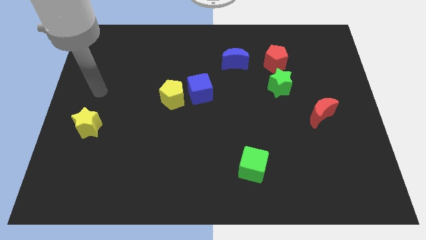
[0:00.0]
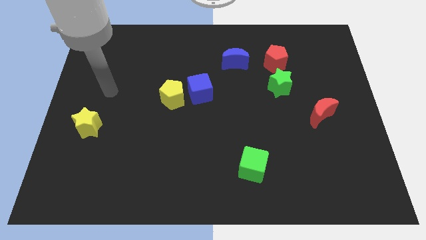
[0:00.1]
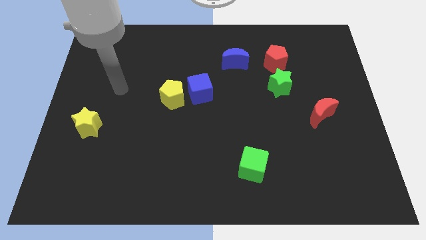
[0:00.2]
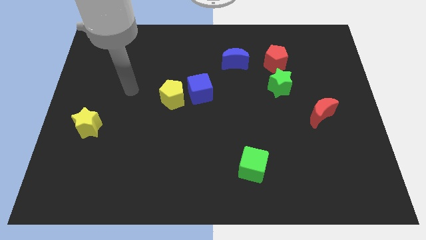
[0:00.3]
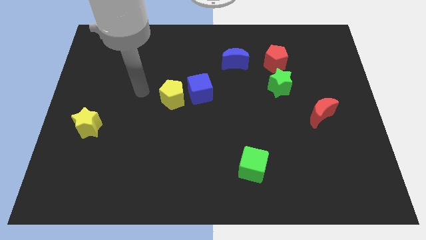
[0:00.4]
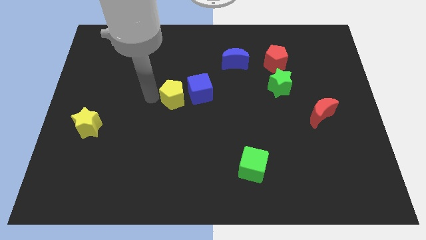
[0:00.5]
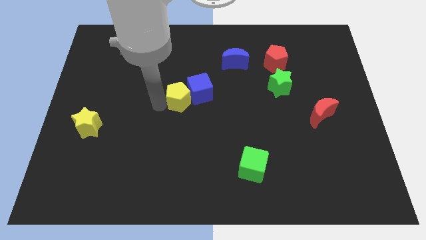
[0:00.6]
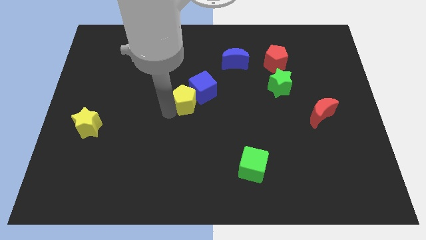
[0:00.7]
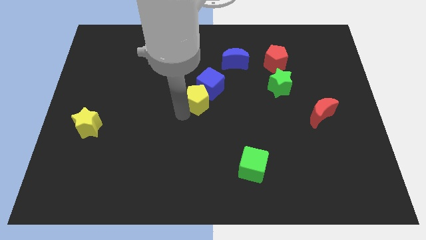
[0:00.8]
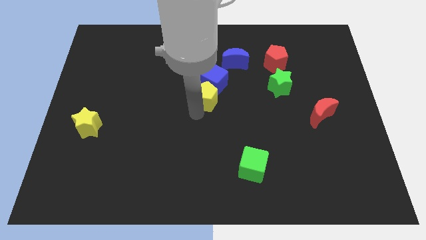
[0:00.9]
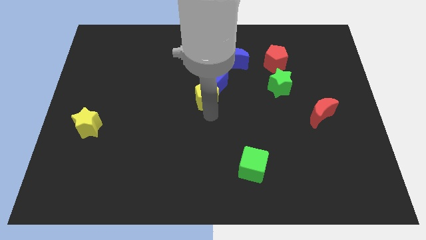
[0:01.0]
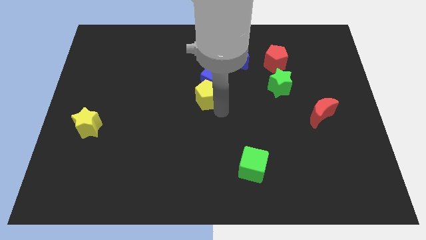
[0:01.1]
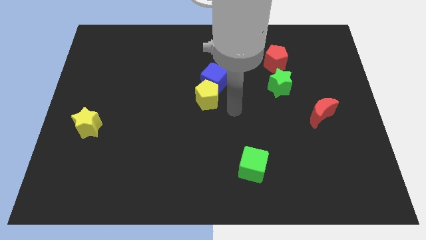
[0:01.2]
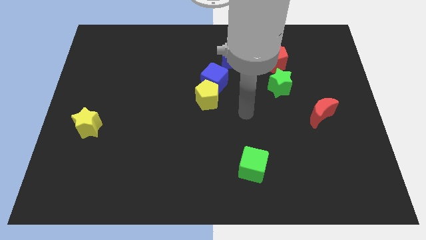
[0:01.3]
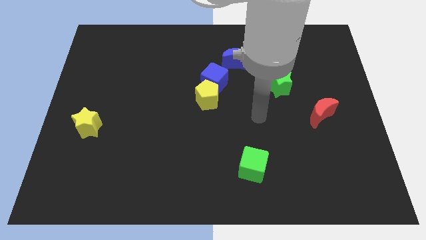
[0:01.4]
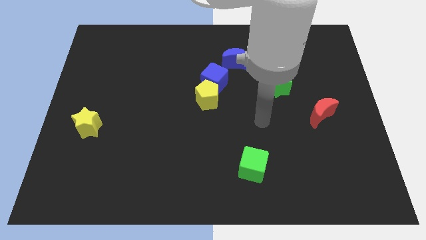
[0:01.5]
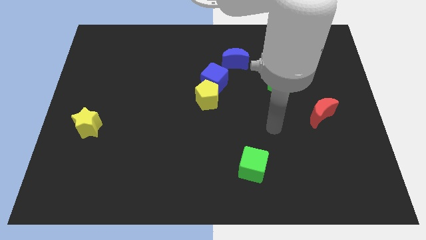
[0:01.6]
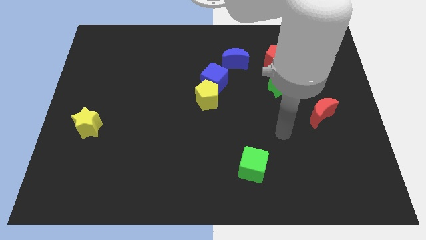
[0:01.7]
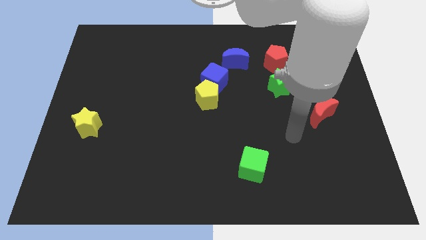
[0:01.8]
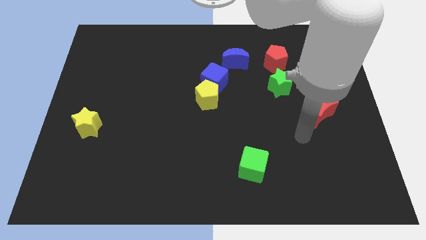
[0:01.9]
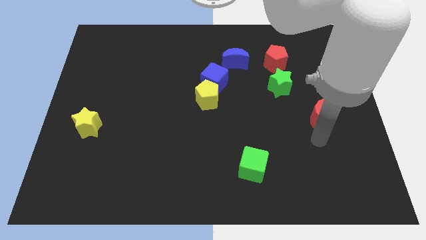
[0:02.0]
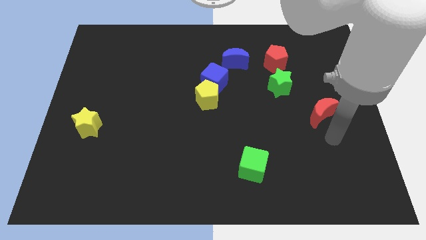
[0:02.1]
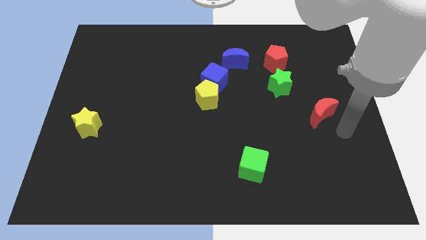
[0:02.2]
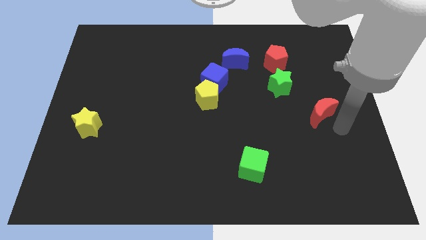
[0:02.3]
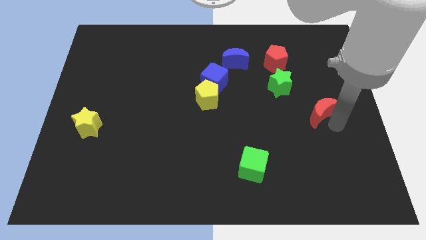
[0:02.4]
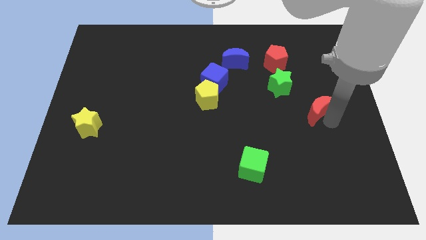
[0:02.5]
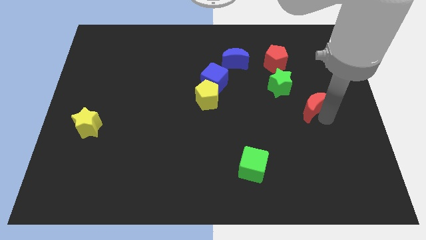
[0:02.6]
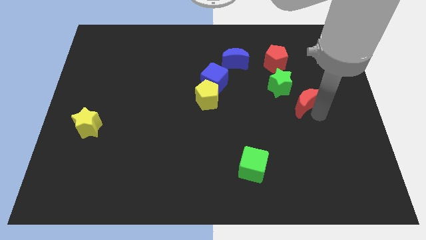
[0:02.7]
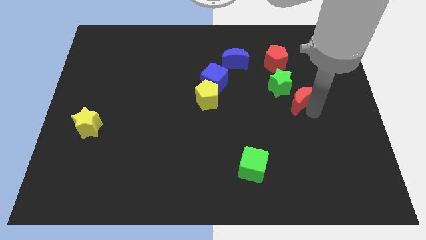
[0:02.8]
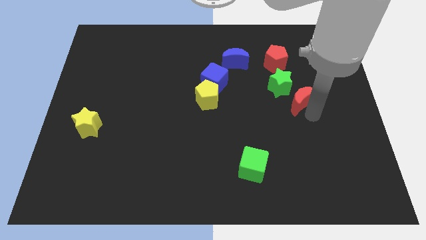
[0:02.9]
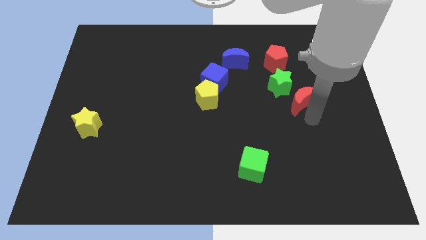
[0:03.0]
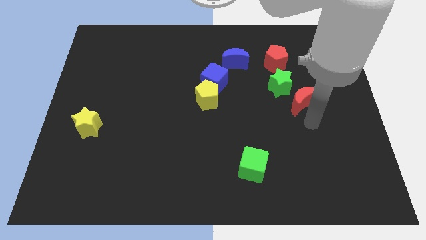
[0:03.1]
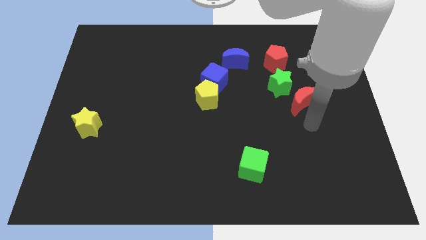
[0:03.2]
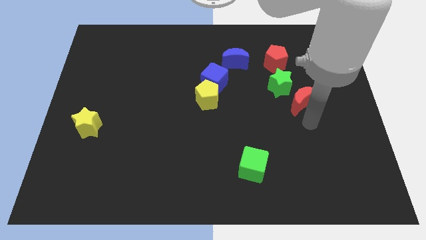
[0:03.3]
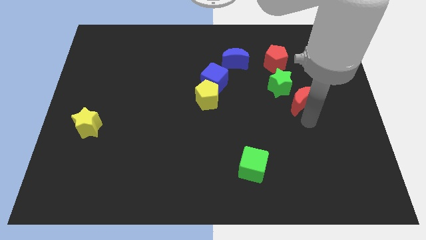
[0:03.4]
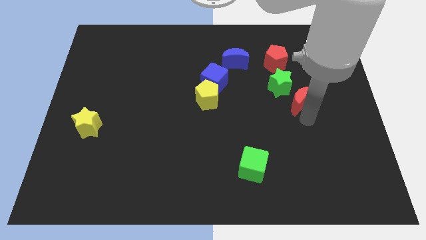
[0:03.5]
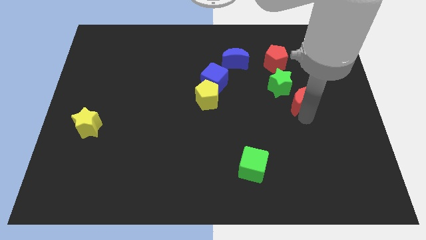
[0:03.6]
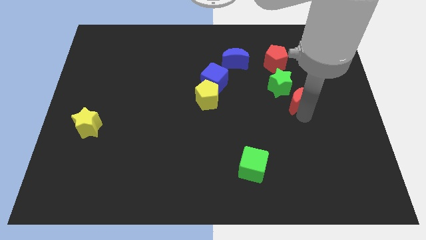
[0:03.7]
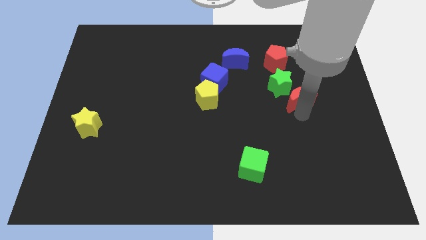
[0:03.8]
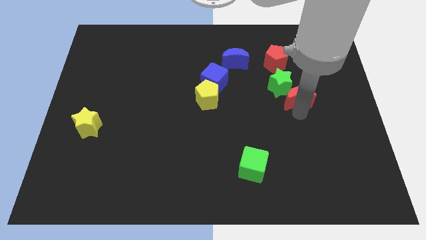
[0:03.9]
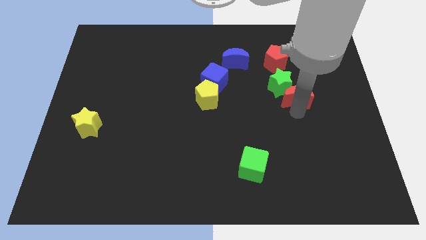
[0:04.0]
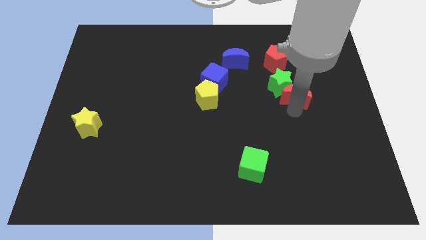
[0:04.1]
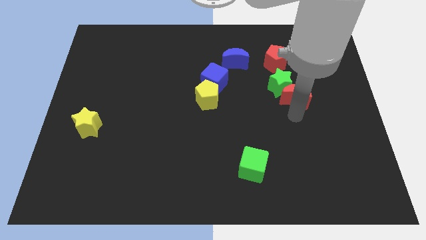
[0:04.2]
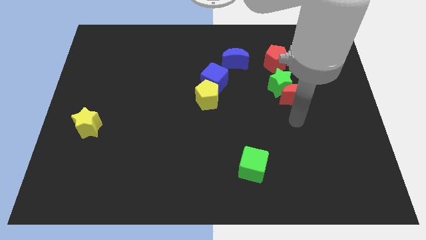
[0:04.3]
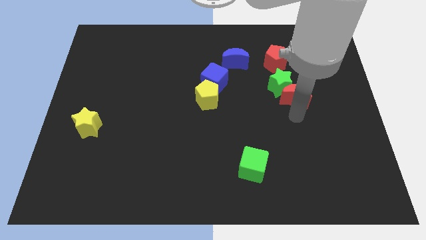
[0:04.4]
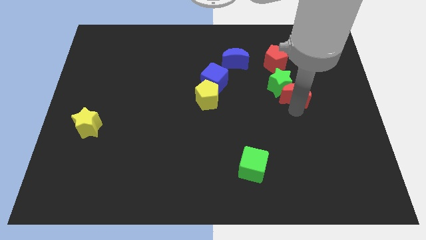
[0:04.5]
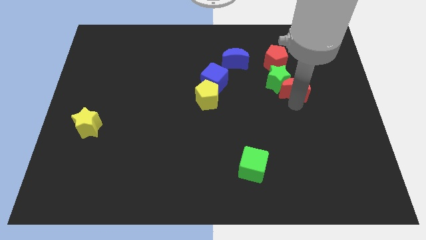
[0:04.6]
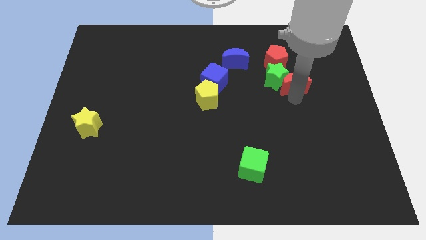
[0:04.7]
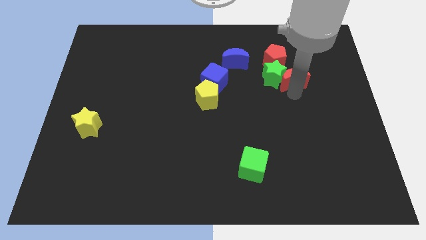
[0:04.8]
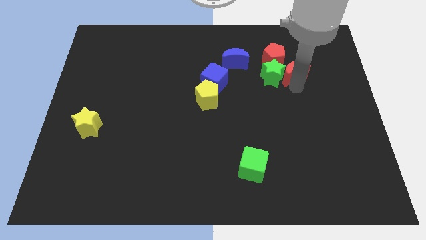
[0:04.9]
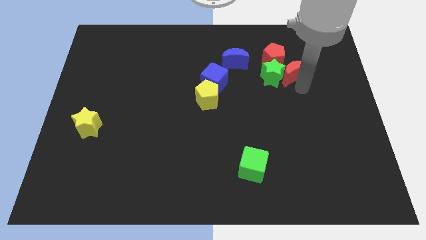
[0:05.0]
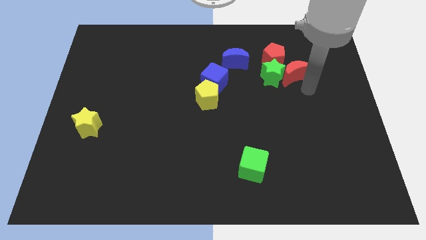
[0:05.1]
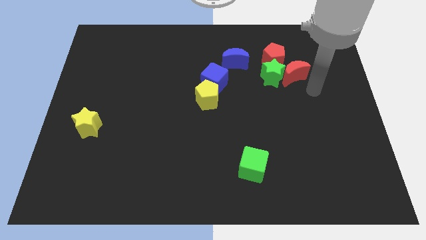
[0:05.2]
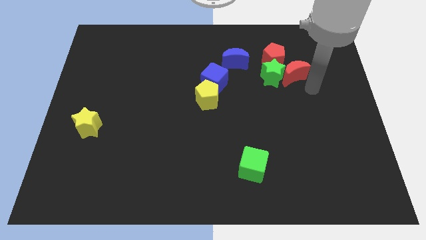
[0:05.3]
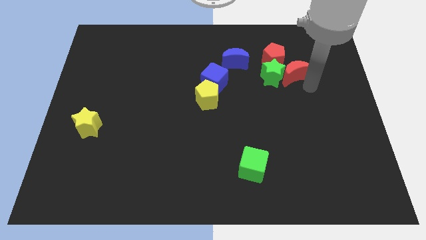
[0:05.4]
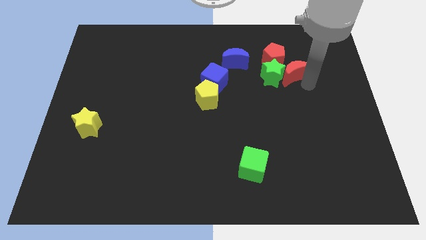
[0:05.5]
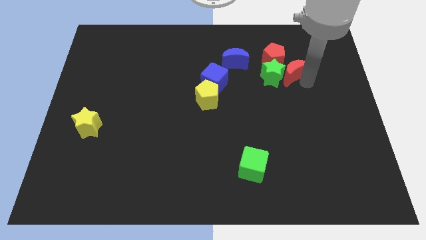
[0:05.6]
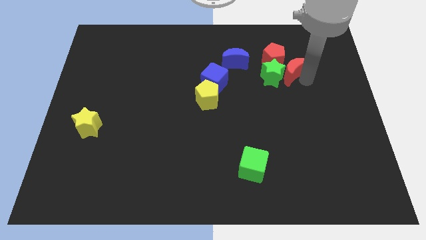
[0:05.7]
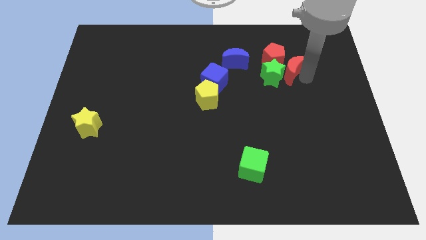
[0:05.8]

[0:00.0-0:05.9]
push the red moon close to the red pentagon

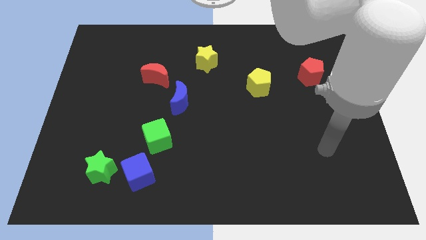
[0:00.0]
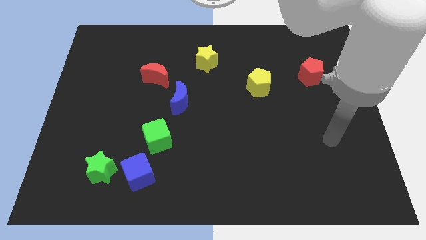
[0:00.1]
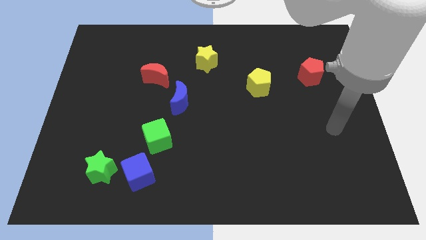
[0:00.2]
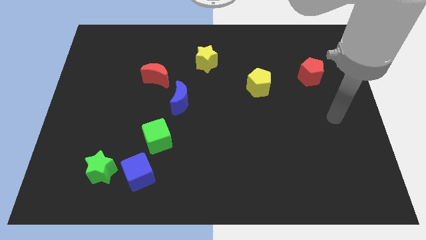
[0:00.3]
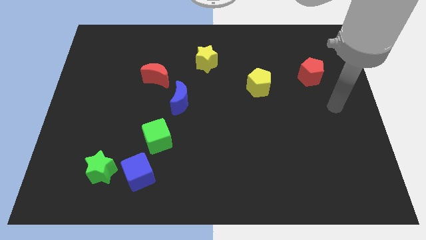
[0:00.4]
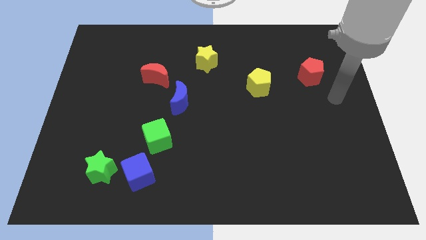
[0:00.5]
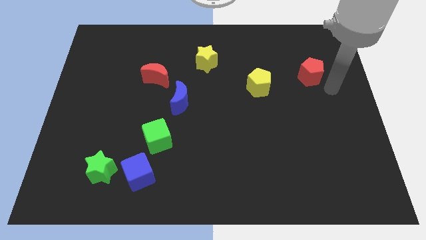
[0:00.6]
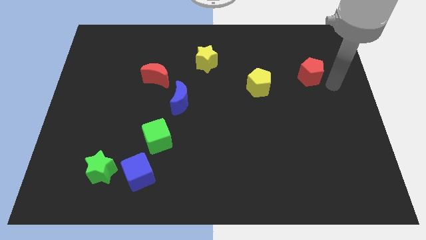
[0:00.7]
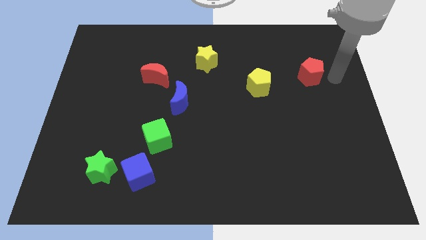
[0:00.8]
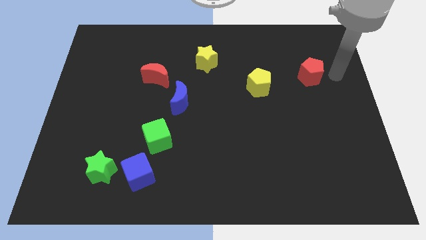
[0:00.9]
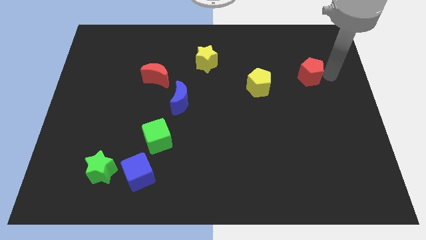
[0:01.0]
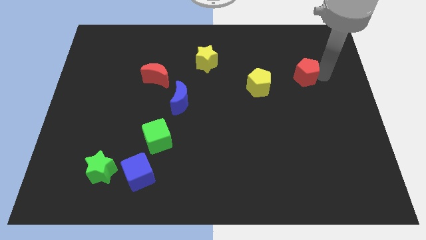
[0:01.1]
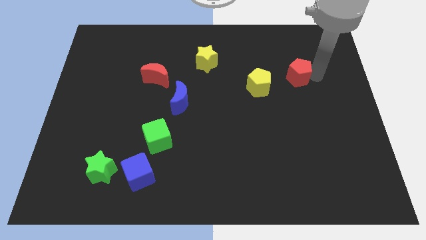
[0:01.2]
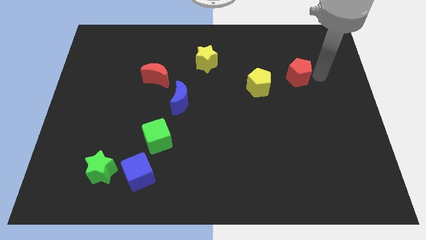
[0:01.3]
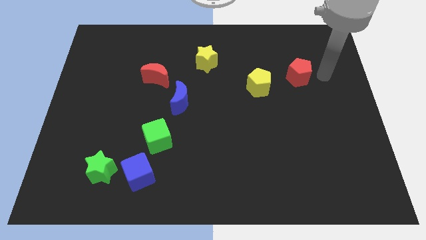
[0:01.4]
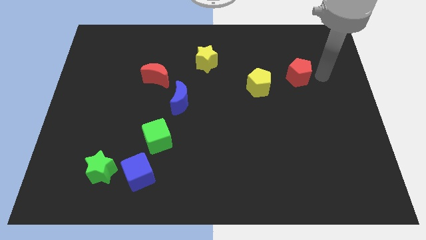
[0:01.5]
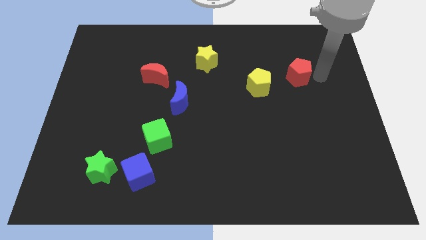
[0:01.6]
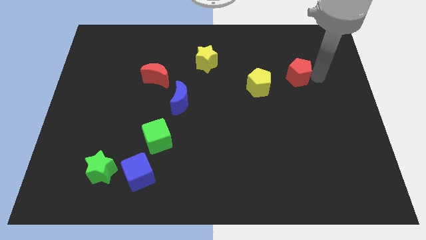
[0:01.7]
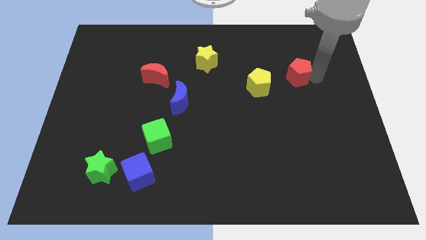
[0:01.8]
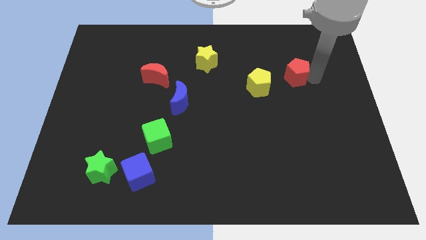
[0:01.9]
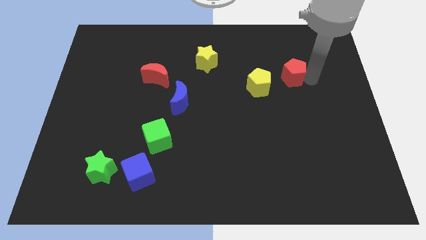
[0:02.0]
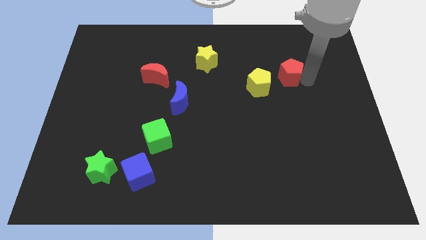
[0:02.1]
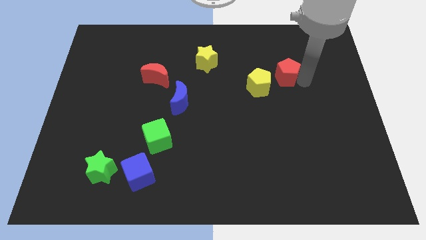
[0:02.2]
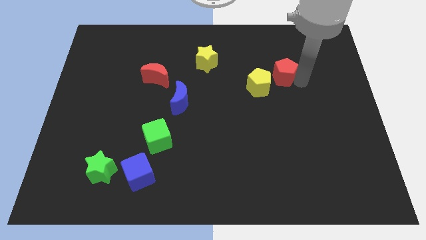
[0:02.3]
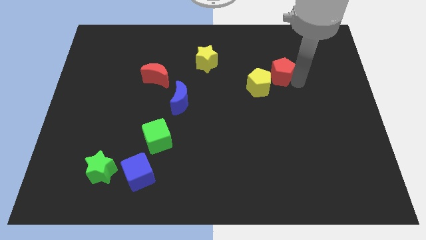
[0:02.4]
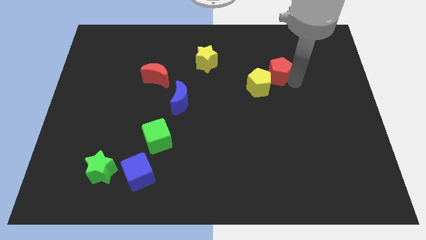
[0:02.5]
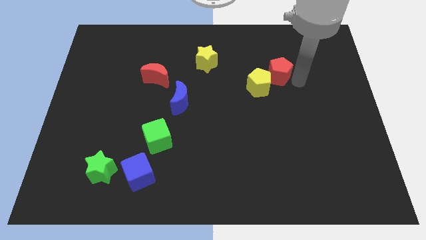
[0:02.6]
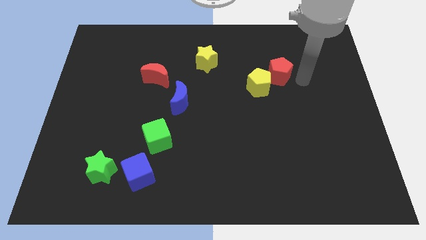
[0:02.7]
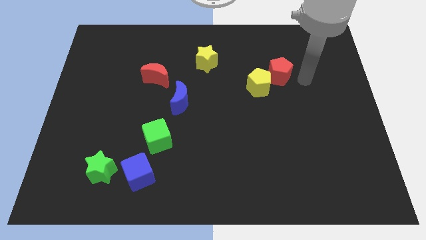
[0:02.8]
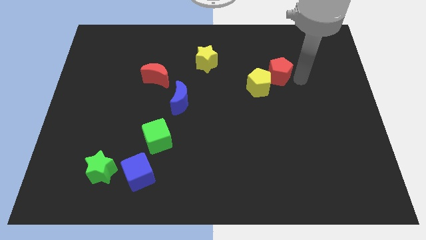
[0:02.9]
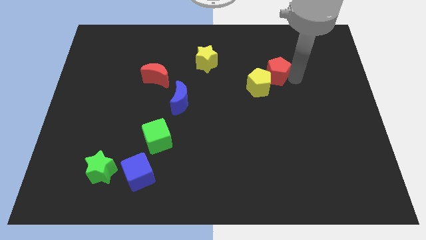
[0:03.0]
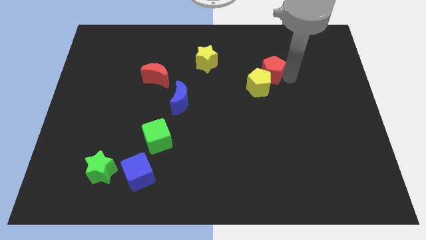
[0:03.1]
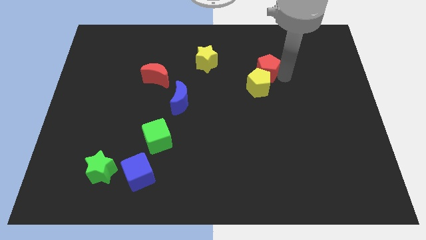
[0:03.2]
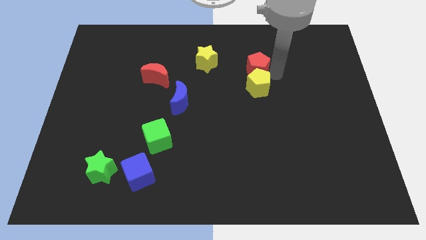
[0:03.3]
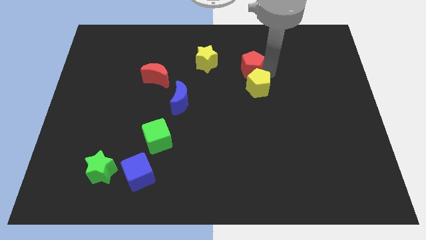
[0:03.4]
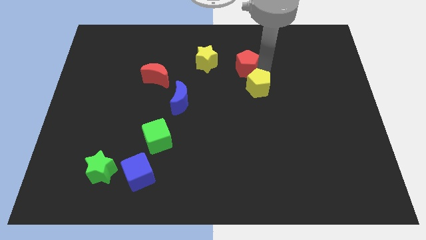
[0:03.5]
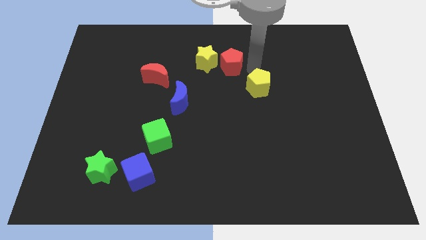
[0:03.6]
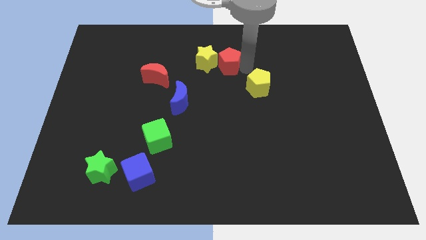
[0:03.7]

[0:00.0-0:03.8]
push the red pentagon close to the yellow star
